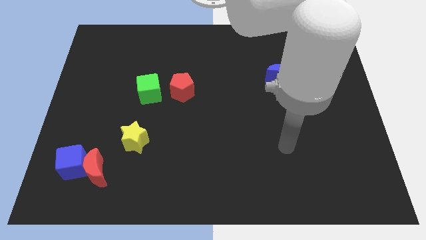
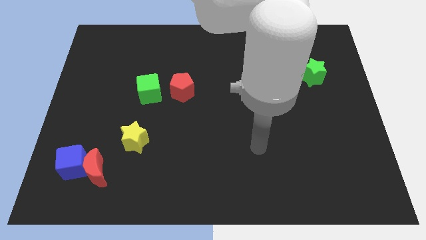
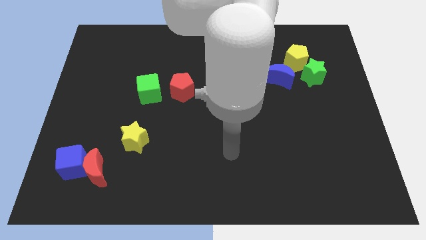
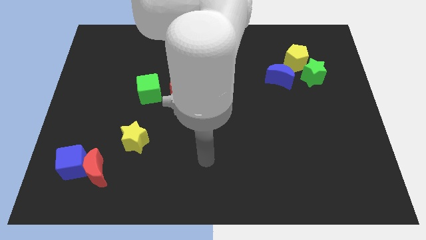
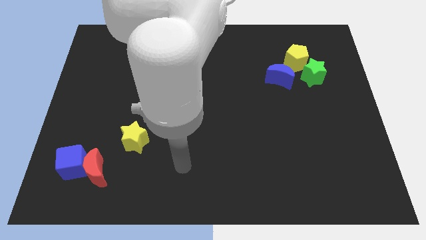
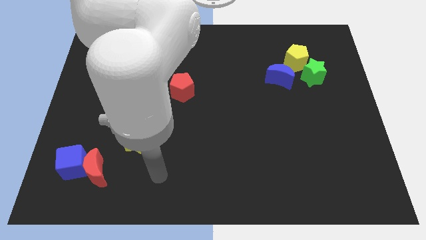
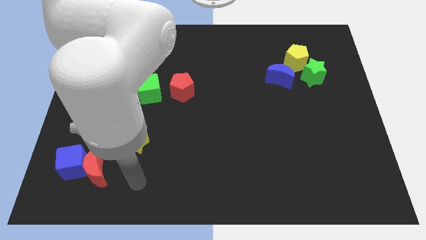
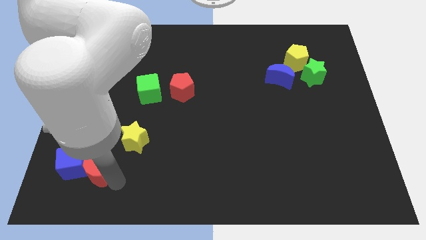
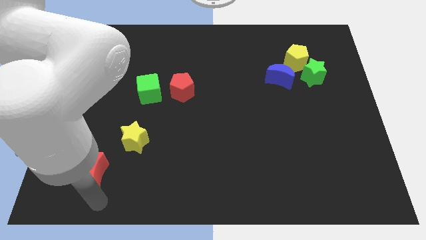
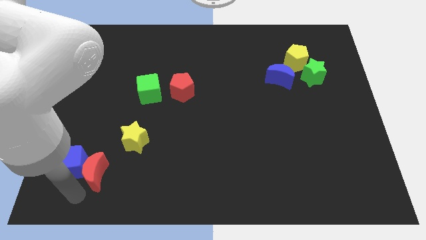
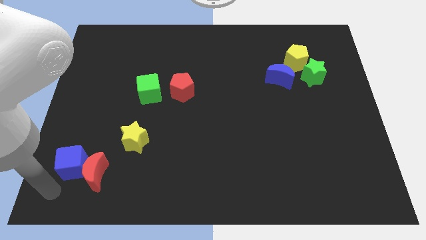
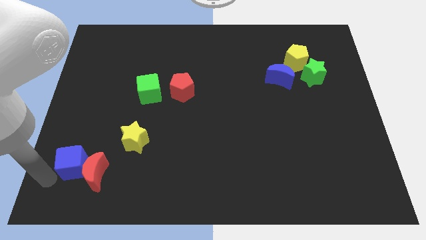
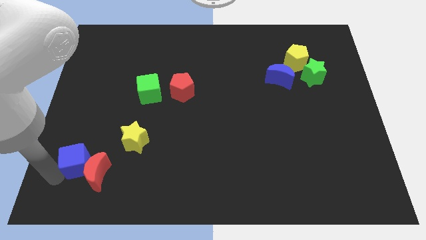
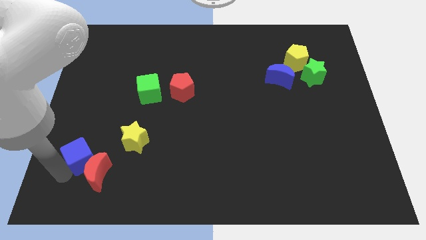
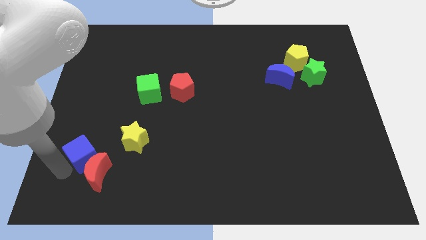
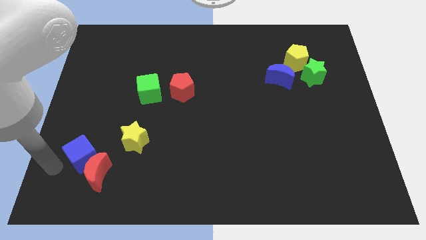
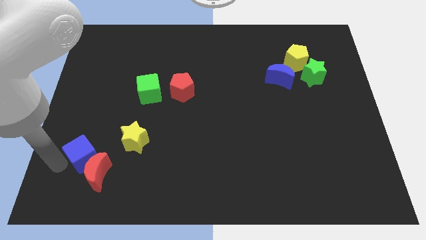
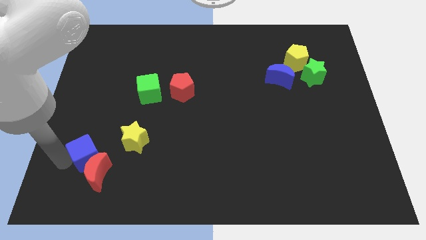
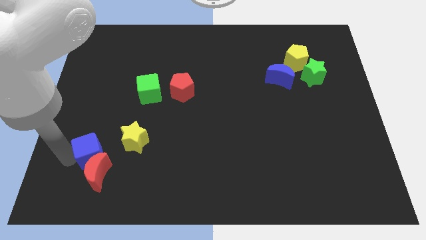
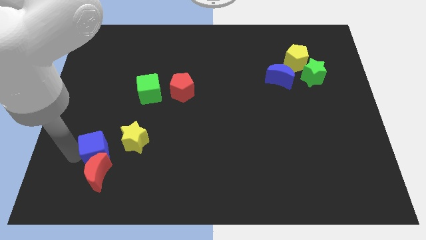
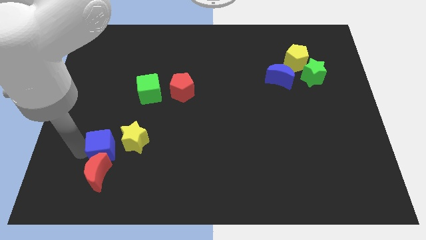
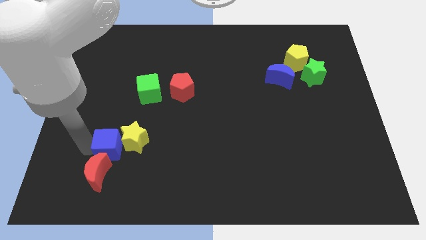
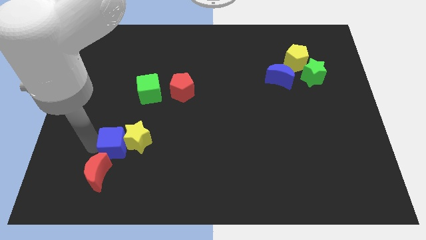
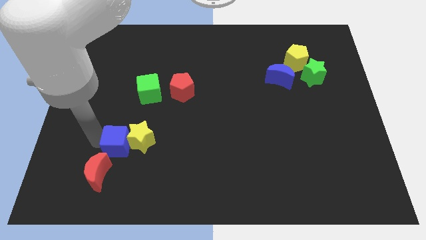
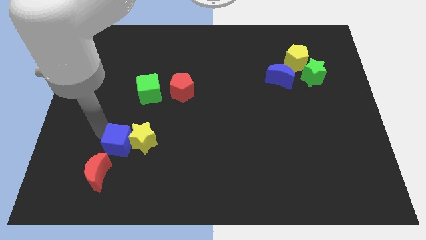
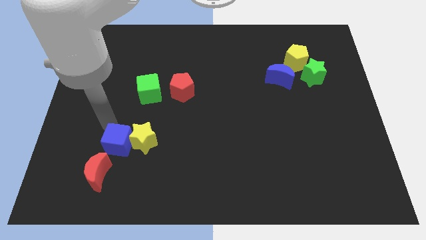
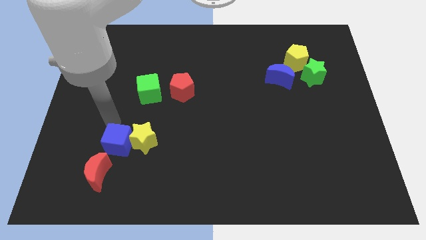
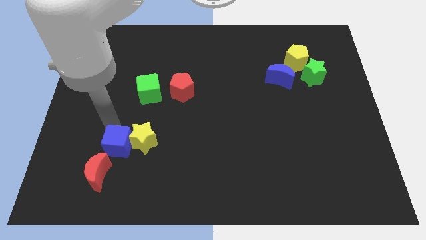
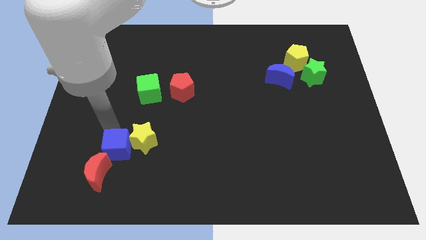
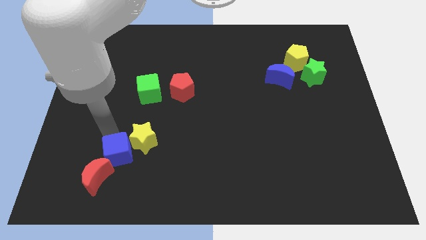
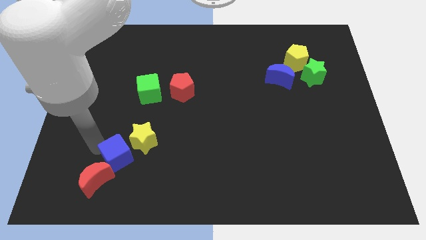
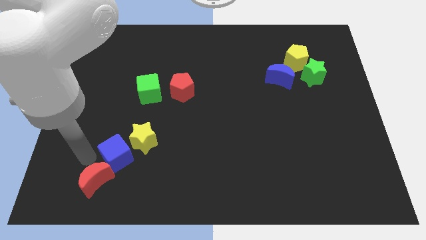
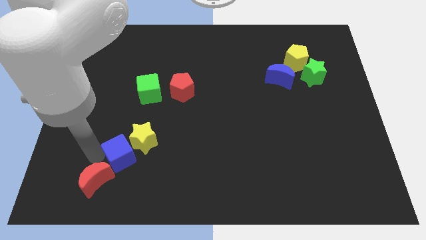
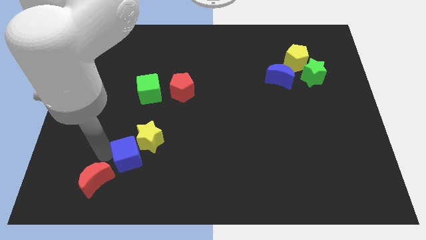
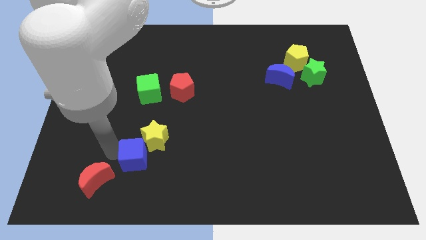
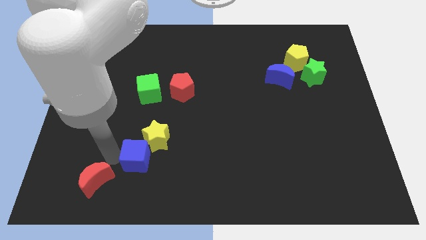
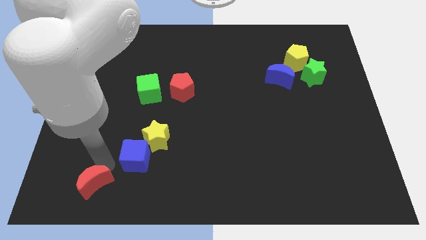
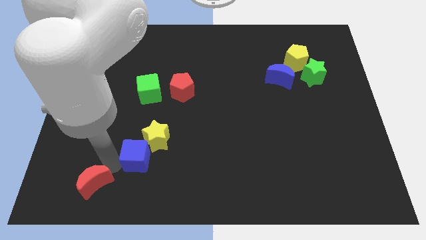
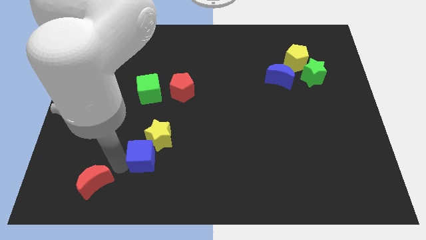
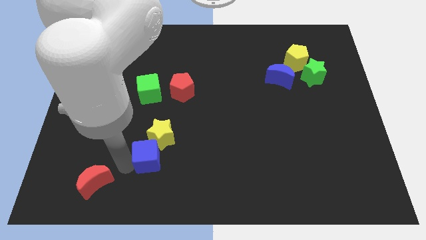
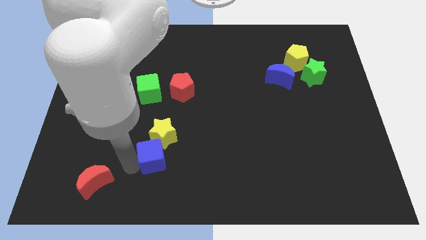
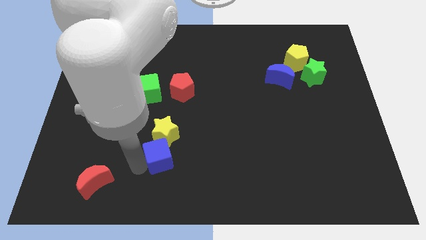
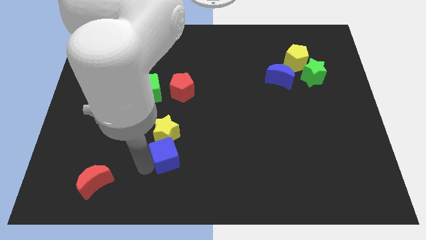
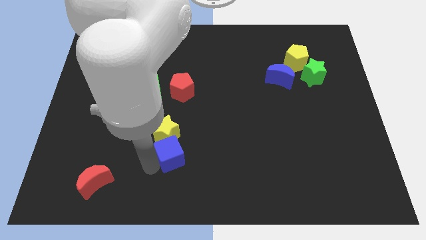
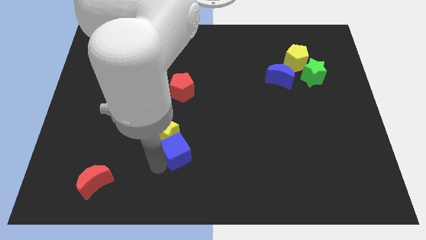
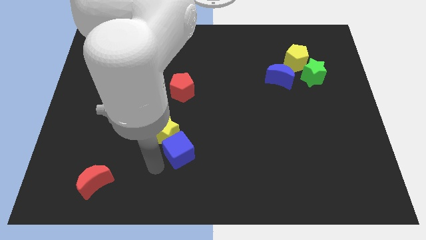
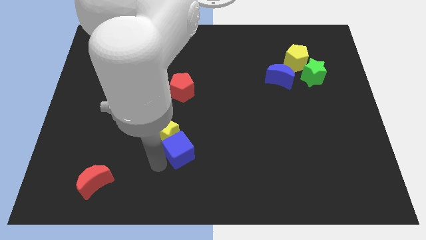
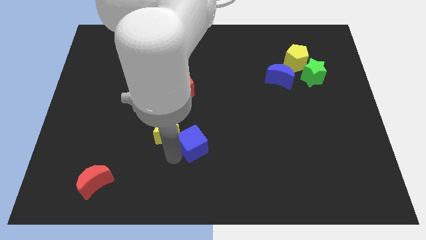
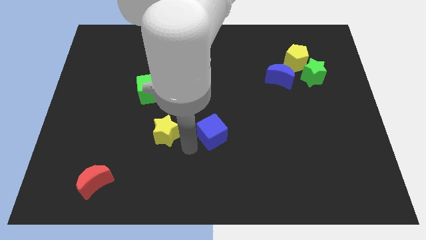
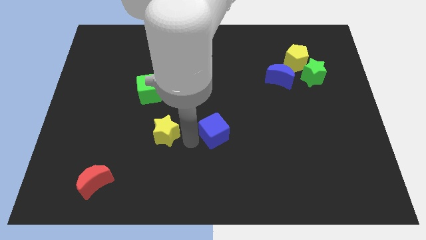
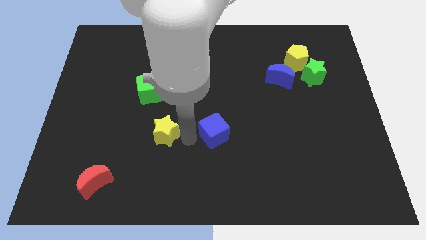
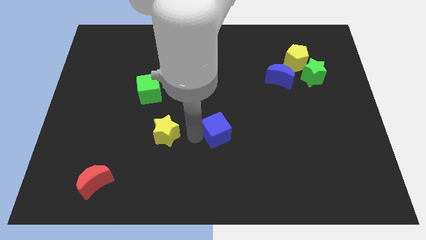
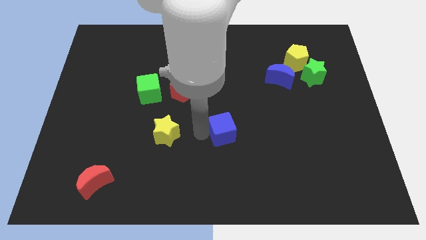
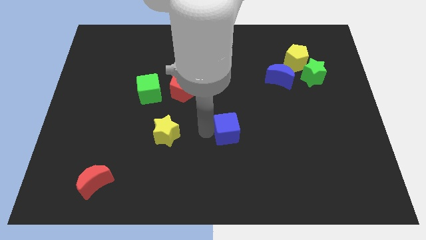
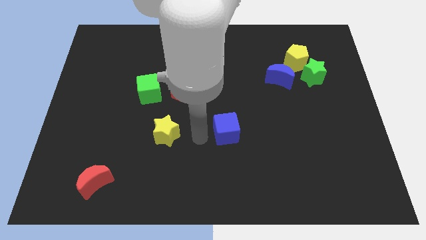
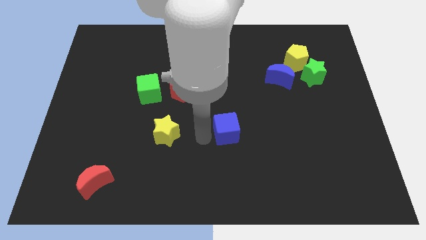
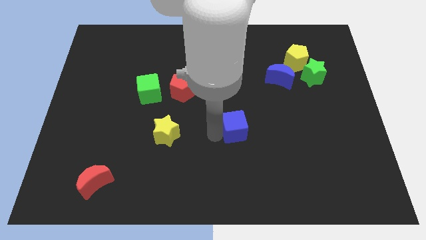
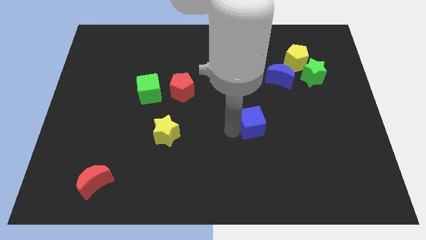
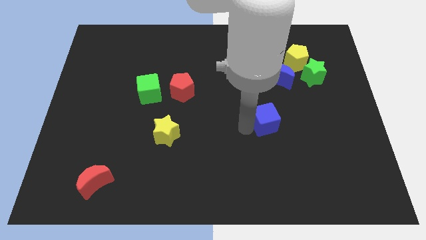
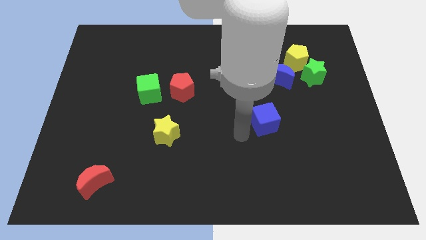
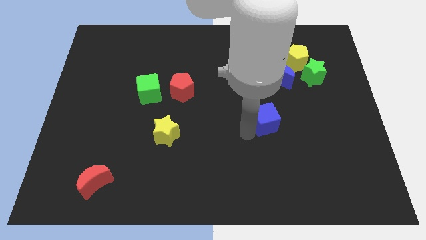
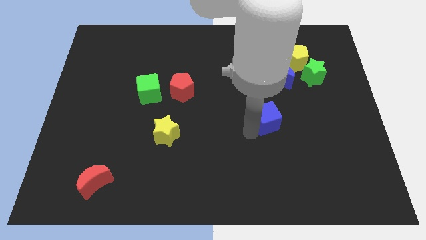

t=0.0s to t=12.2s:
push the blue cube to the bottom of the blue moon

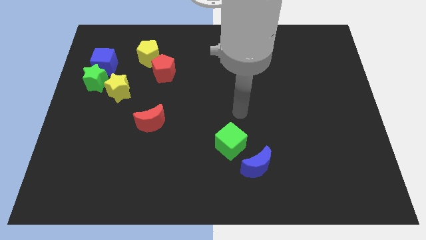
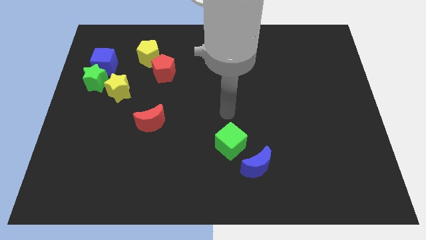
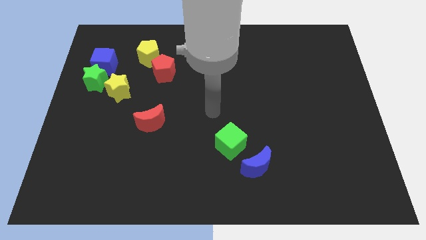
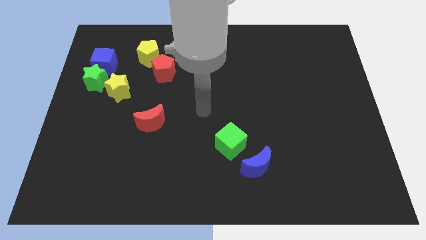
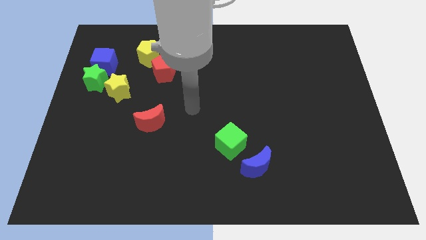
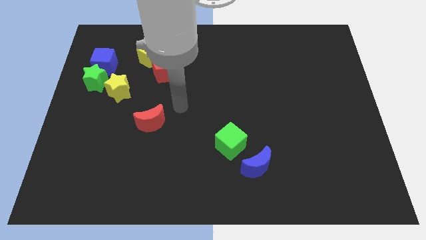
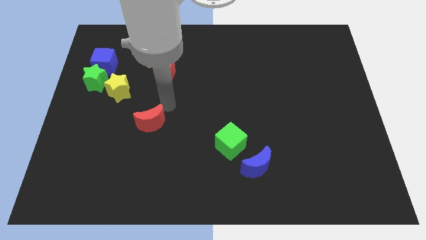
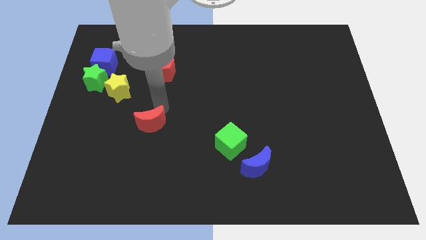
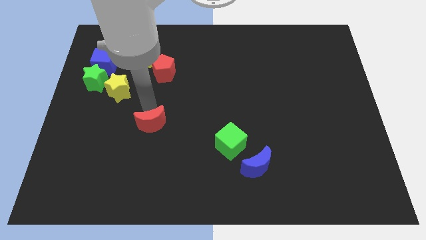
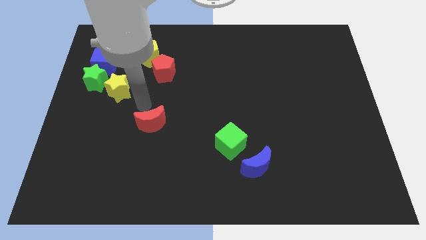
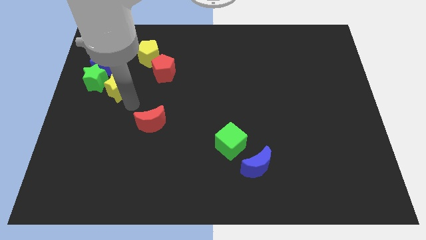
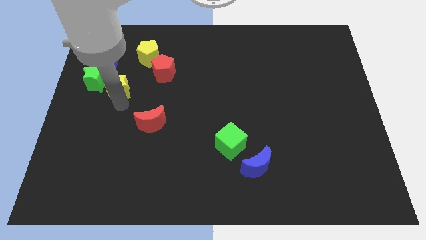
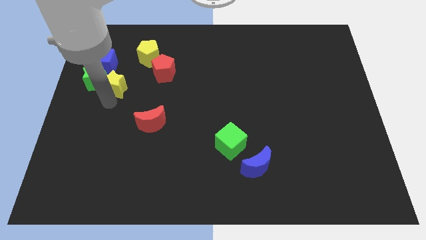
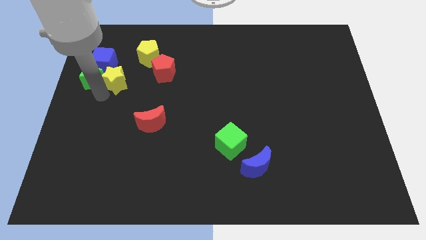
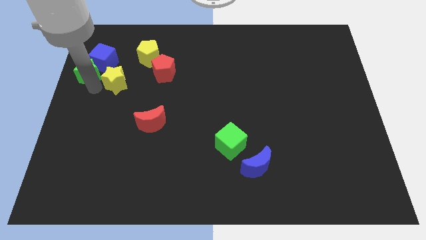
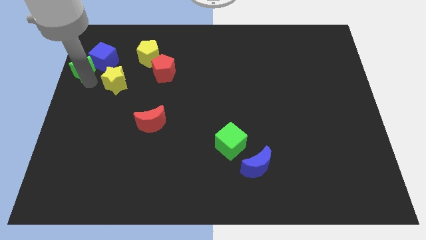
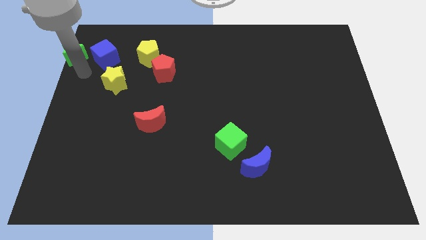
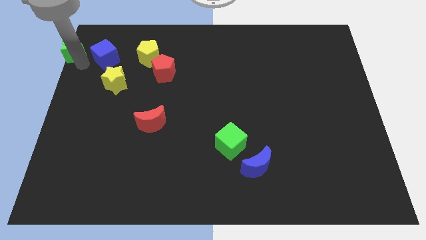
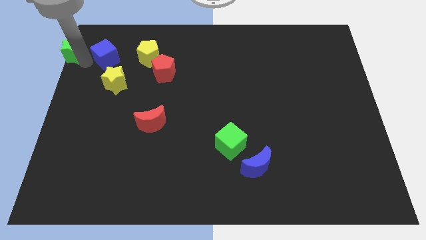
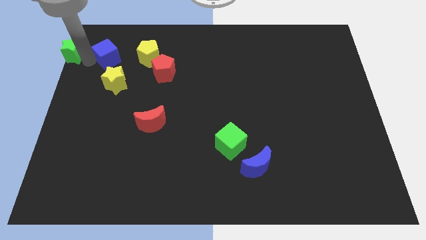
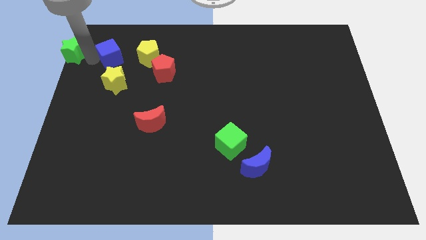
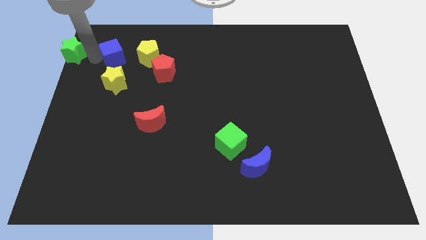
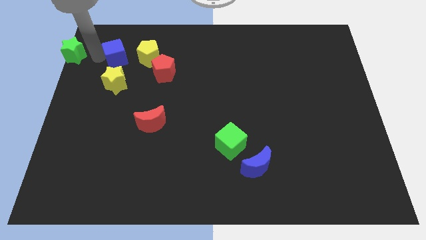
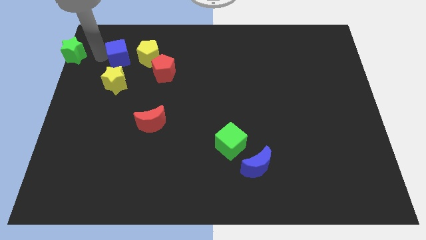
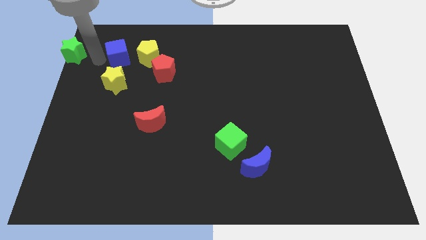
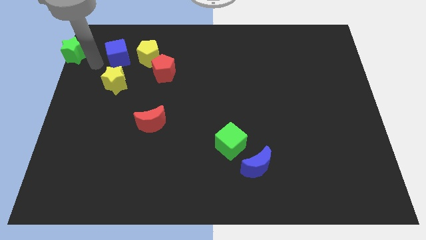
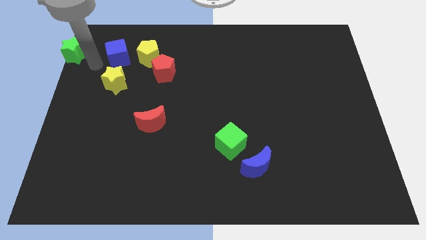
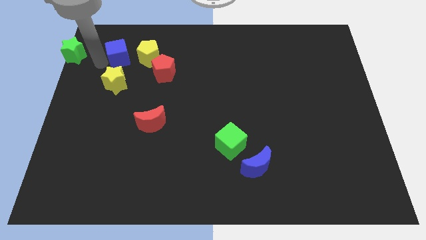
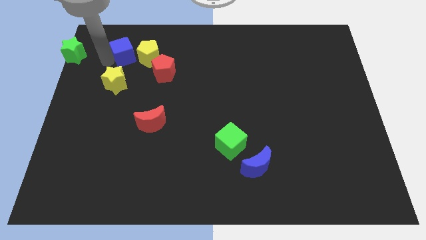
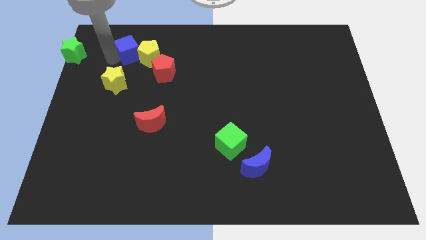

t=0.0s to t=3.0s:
move the blue cube to the top left side of the red pentagon
